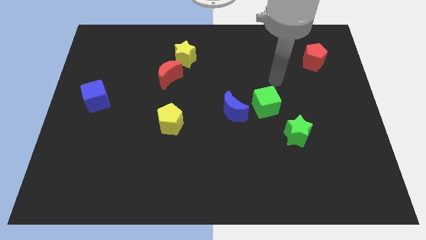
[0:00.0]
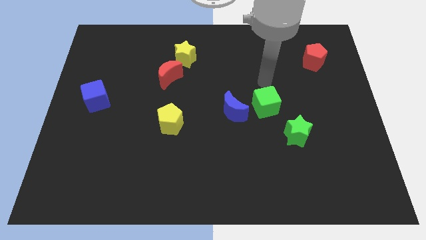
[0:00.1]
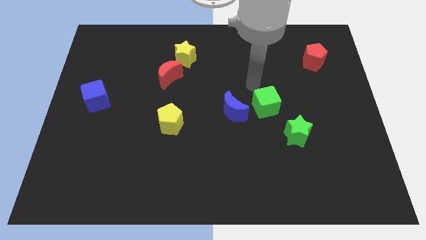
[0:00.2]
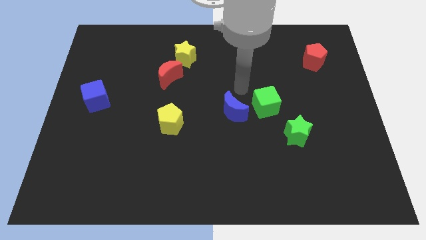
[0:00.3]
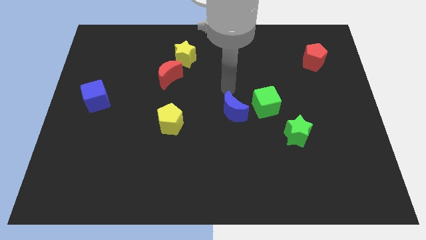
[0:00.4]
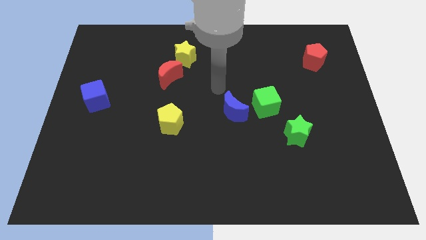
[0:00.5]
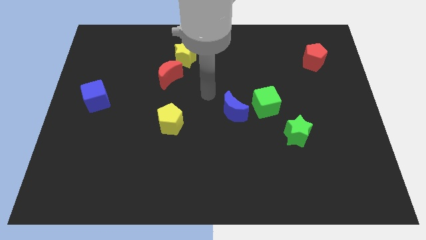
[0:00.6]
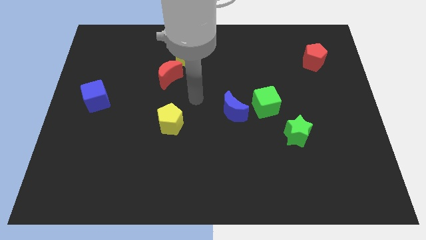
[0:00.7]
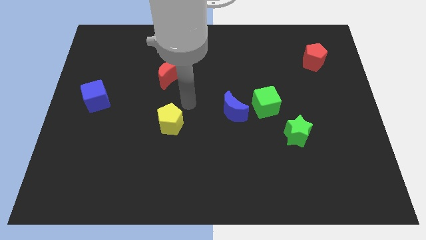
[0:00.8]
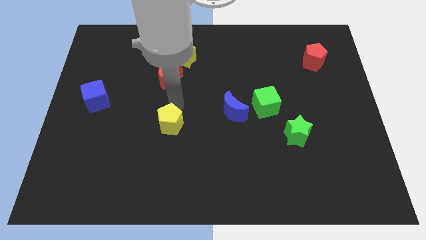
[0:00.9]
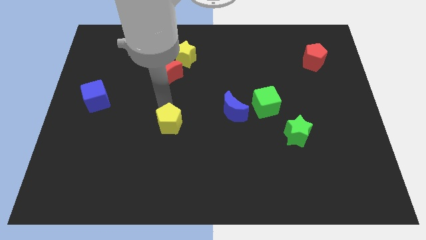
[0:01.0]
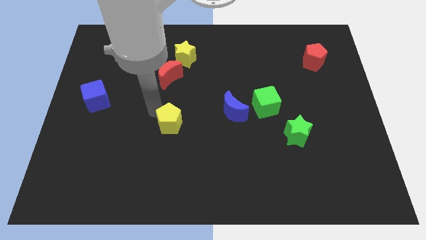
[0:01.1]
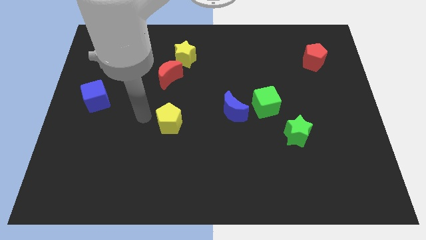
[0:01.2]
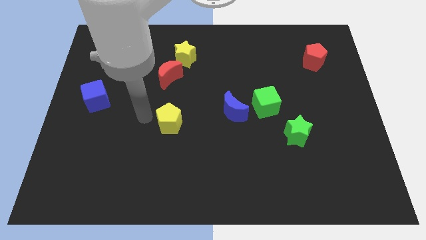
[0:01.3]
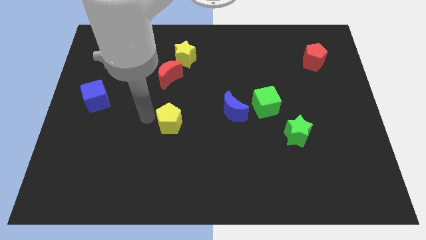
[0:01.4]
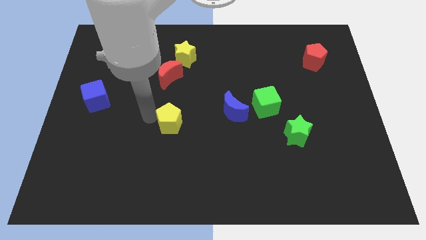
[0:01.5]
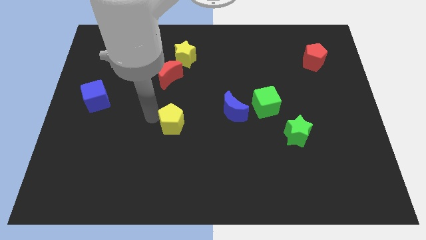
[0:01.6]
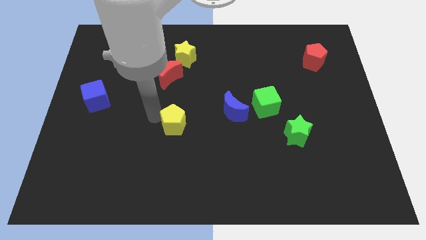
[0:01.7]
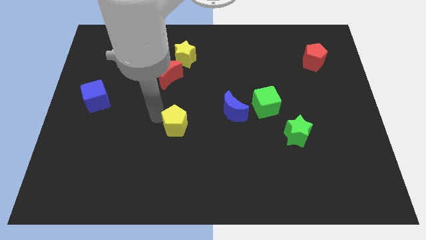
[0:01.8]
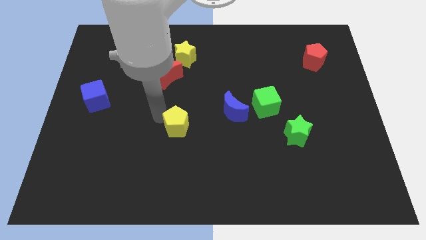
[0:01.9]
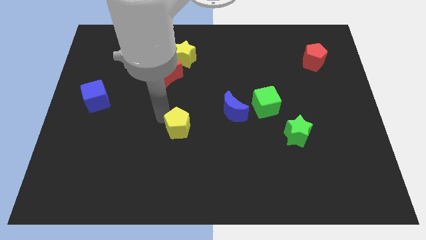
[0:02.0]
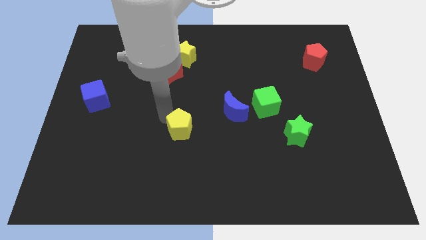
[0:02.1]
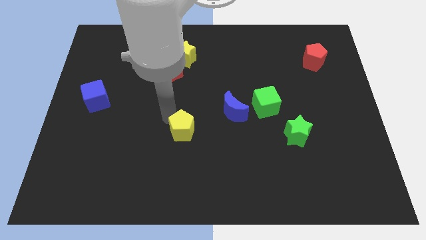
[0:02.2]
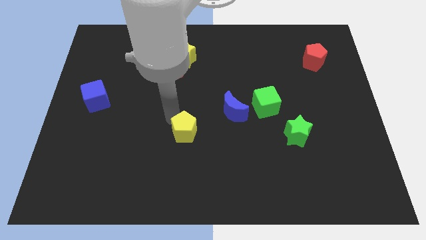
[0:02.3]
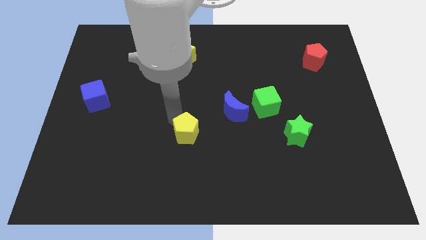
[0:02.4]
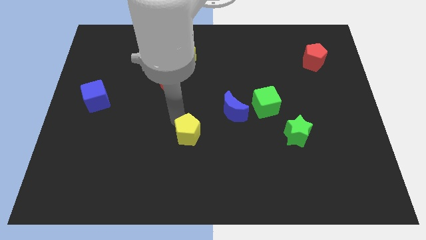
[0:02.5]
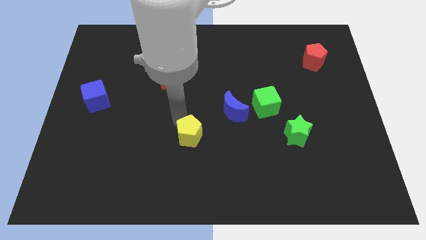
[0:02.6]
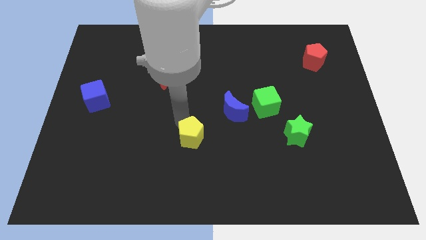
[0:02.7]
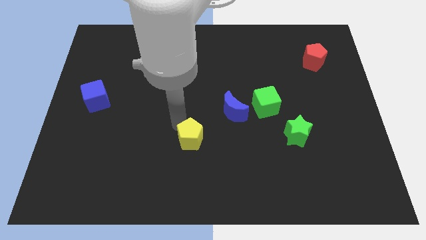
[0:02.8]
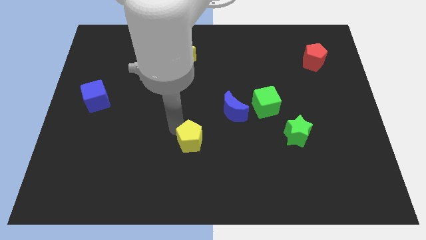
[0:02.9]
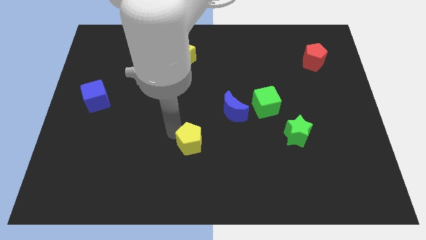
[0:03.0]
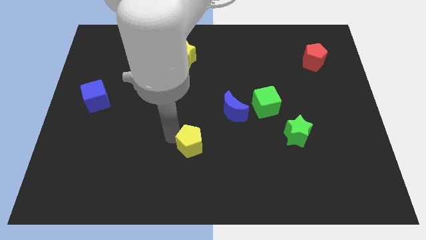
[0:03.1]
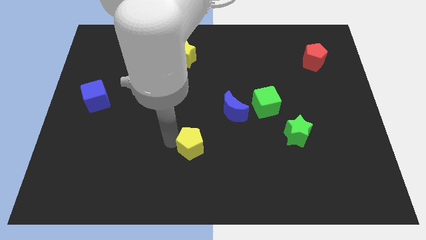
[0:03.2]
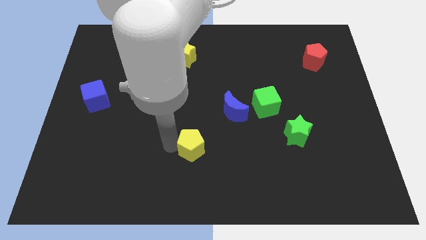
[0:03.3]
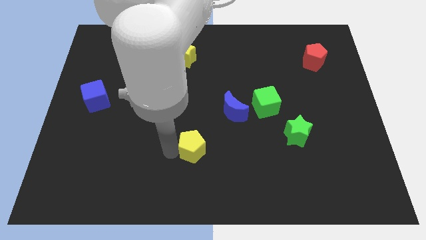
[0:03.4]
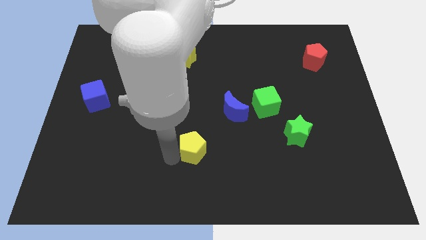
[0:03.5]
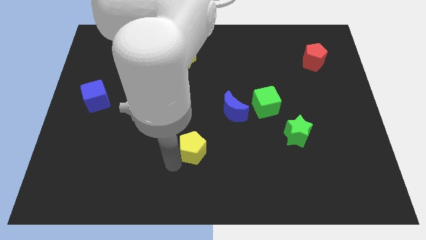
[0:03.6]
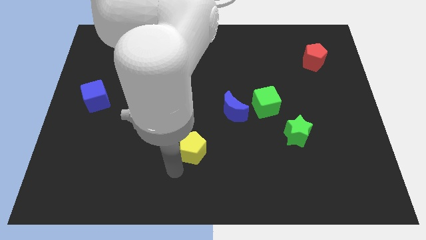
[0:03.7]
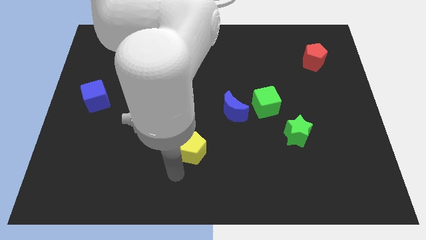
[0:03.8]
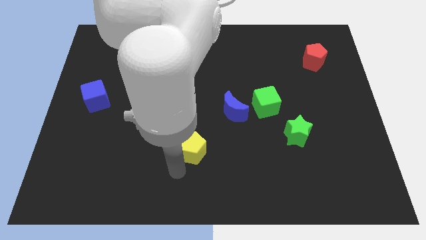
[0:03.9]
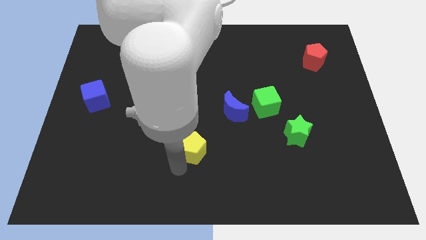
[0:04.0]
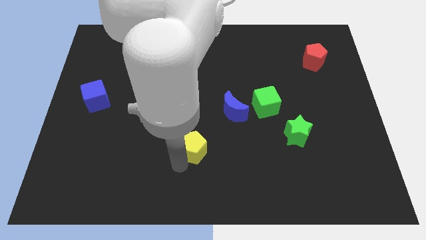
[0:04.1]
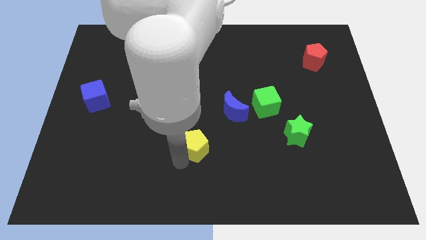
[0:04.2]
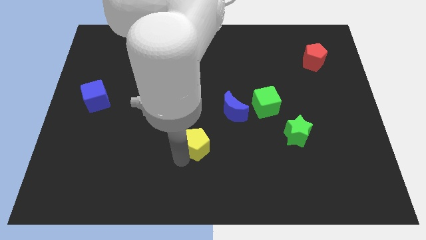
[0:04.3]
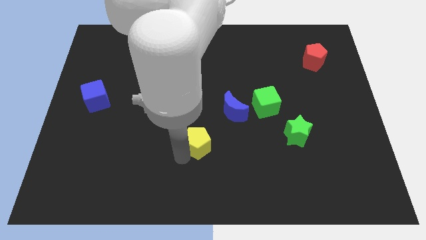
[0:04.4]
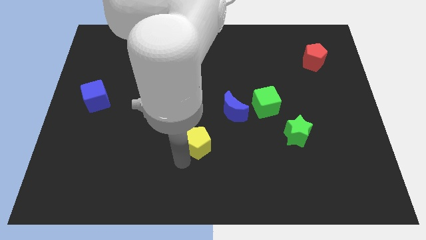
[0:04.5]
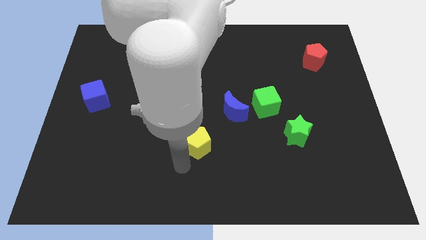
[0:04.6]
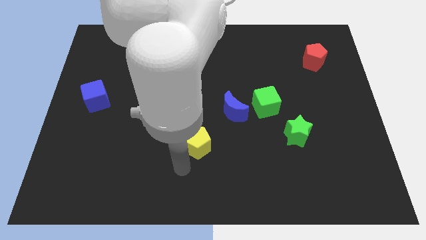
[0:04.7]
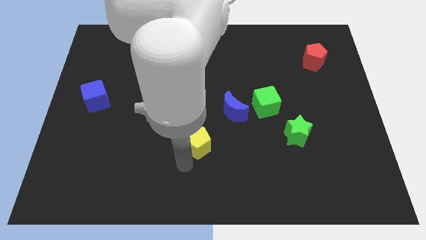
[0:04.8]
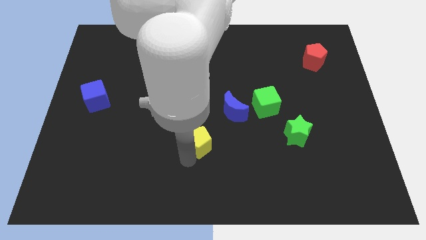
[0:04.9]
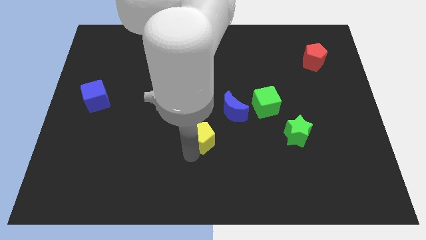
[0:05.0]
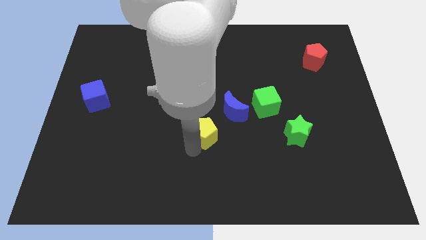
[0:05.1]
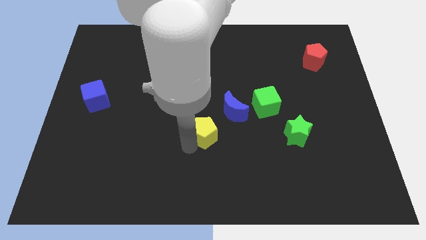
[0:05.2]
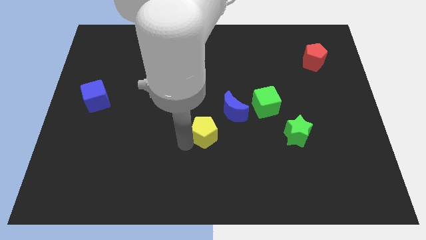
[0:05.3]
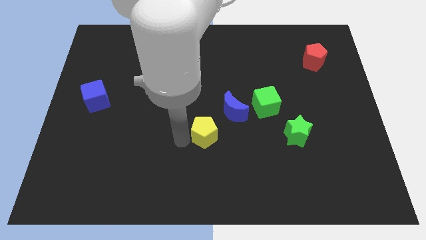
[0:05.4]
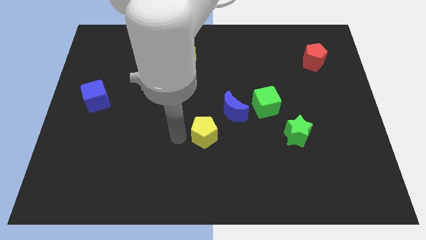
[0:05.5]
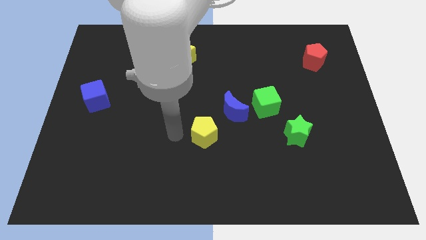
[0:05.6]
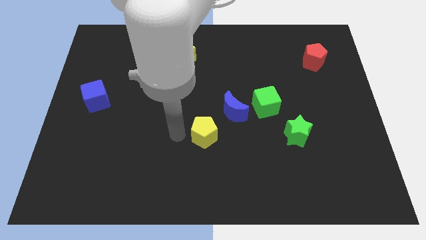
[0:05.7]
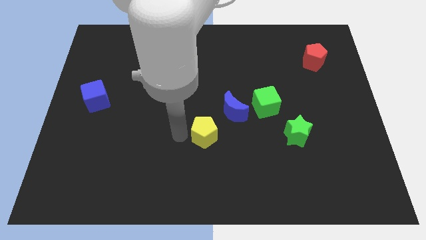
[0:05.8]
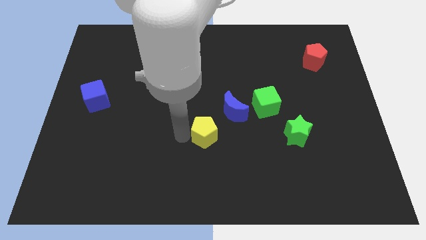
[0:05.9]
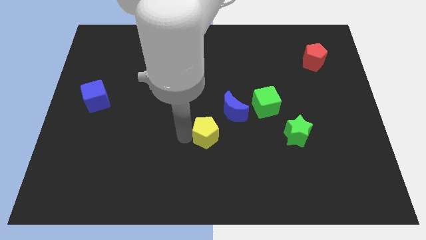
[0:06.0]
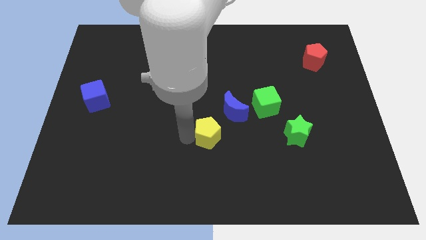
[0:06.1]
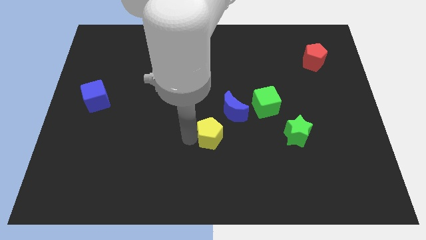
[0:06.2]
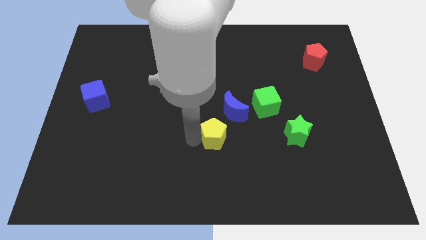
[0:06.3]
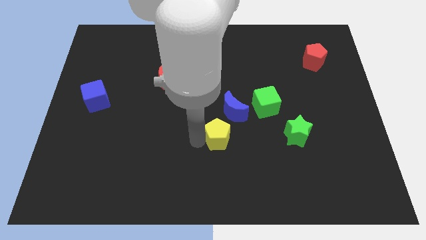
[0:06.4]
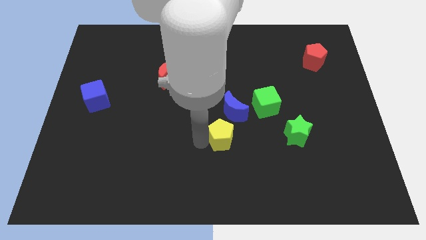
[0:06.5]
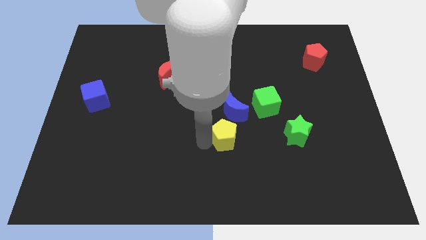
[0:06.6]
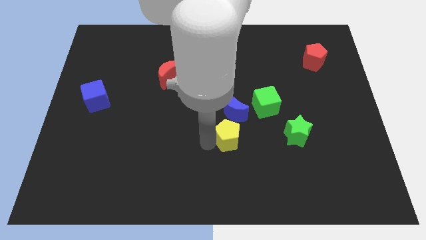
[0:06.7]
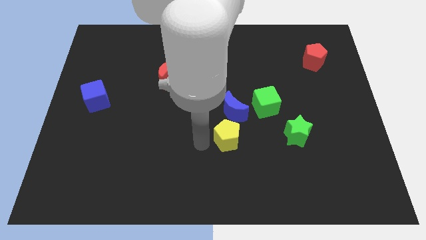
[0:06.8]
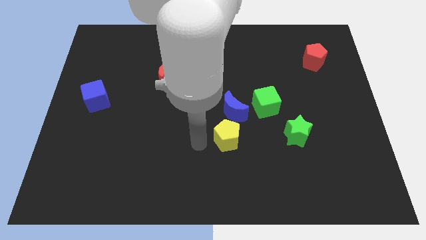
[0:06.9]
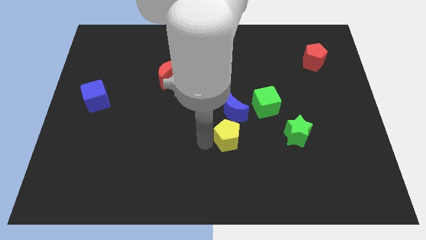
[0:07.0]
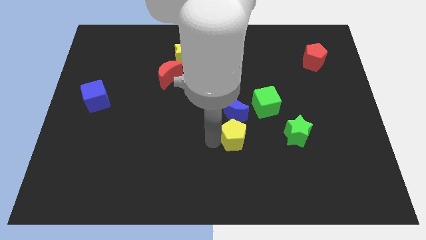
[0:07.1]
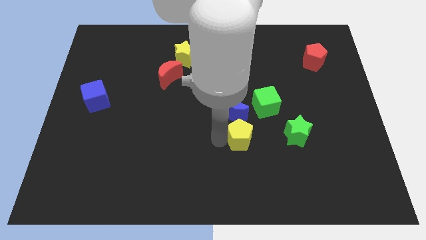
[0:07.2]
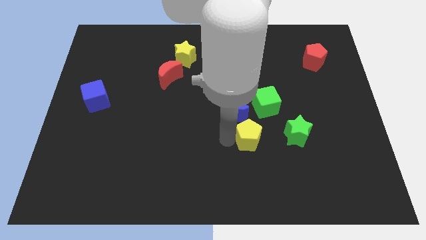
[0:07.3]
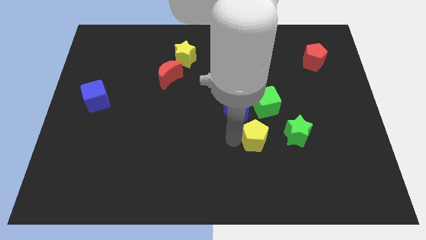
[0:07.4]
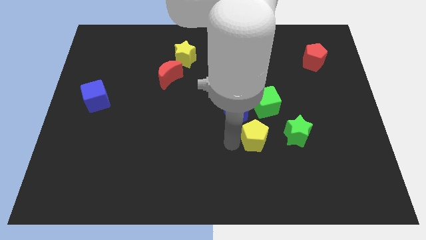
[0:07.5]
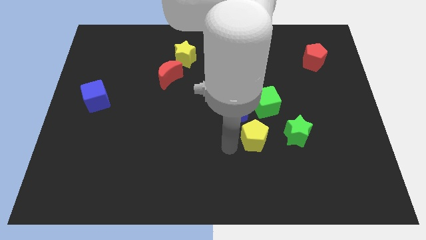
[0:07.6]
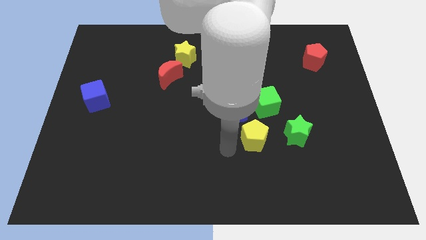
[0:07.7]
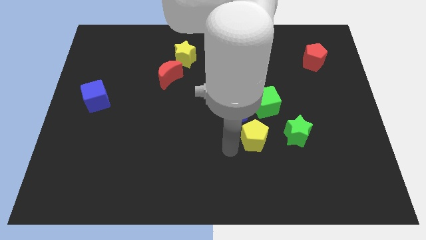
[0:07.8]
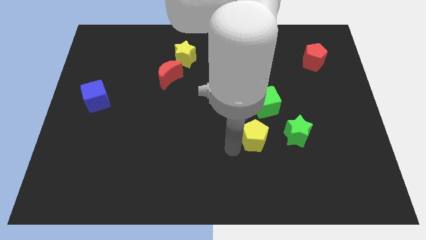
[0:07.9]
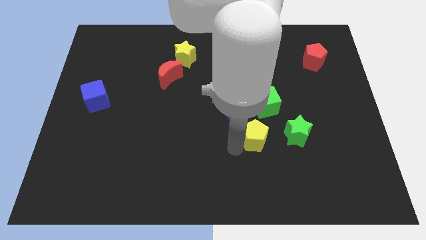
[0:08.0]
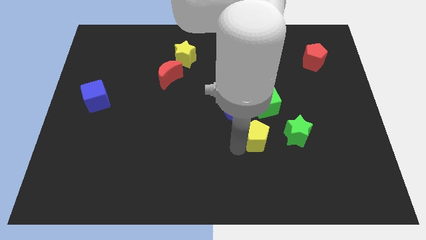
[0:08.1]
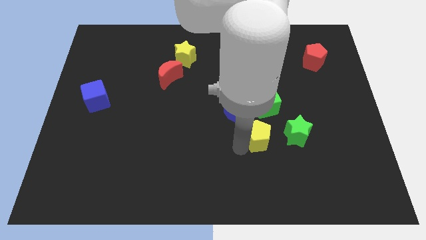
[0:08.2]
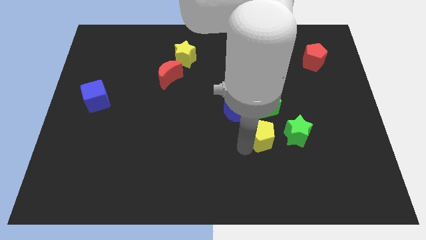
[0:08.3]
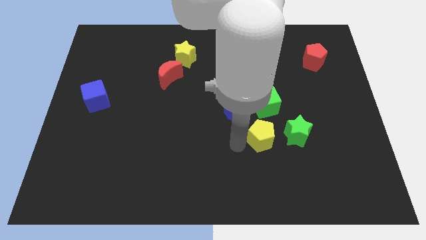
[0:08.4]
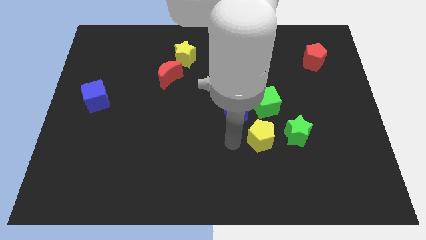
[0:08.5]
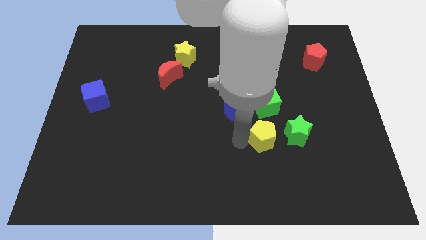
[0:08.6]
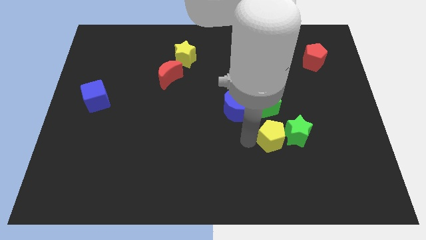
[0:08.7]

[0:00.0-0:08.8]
slide the yellow pentagon next to the green star
